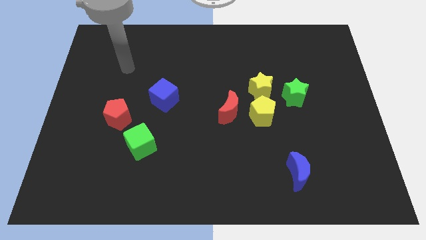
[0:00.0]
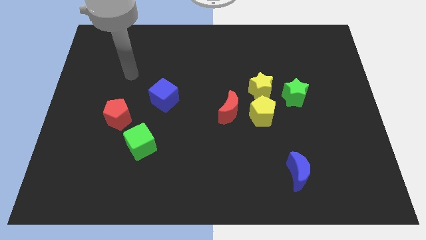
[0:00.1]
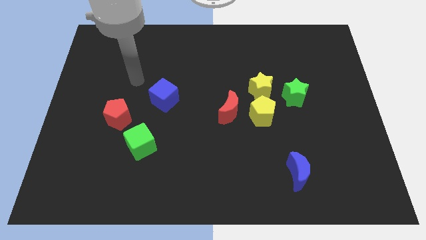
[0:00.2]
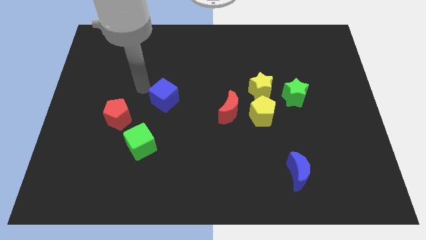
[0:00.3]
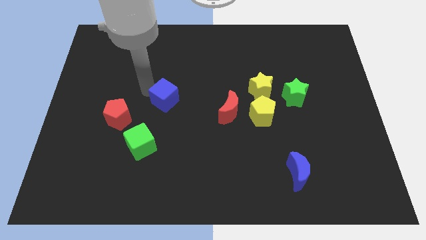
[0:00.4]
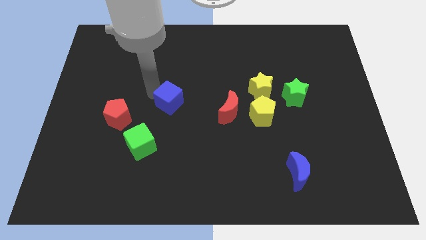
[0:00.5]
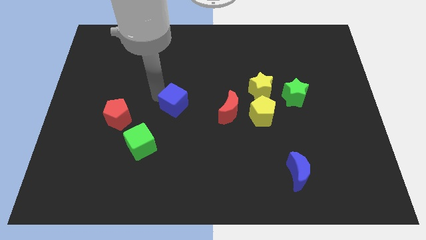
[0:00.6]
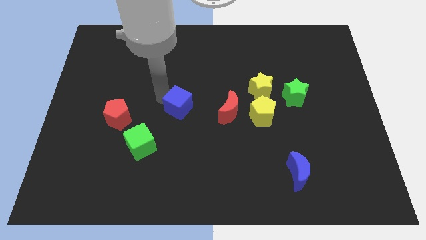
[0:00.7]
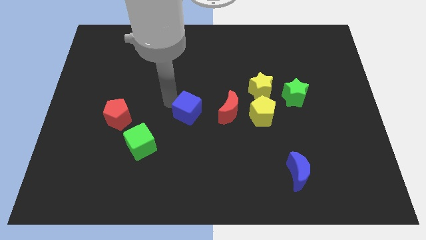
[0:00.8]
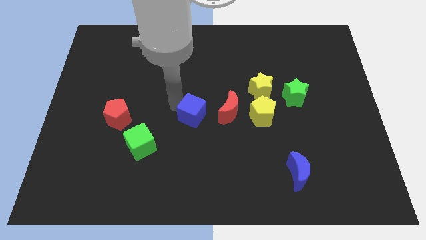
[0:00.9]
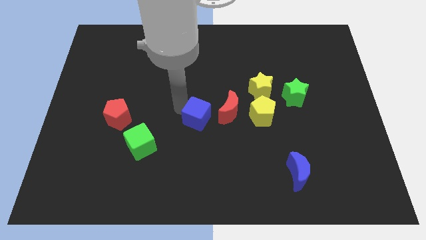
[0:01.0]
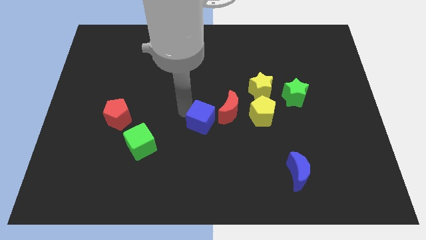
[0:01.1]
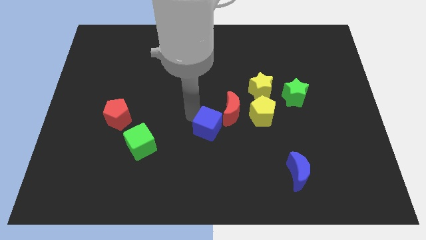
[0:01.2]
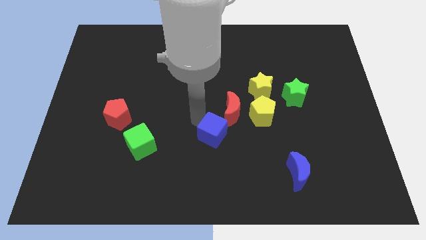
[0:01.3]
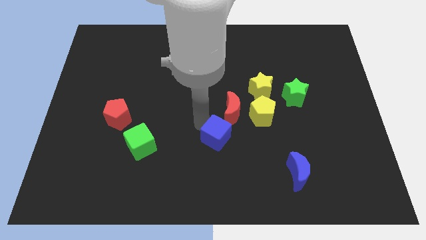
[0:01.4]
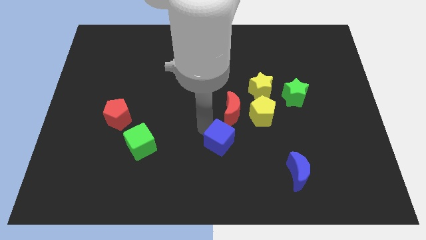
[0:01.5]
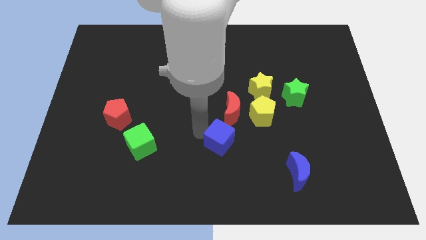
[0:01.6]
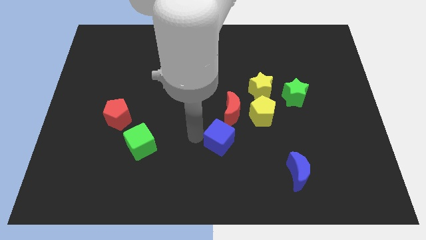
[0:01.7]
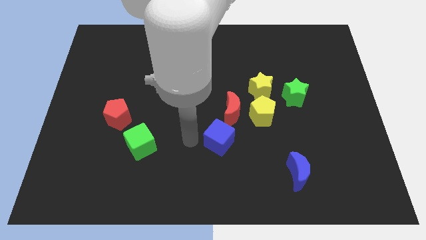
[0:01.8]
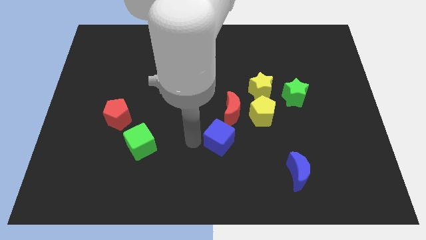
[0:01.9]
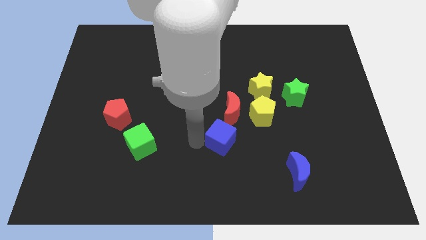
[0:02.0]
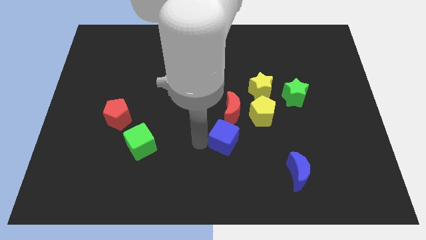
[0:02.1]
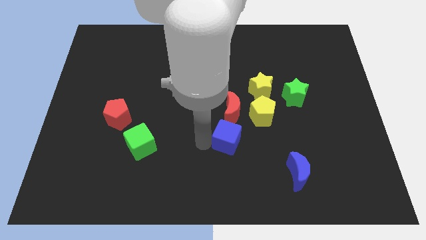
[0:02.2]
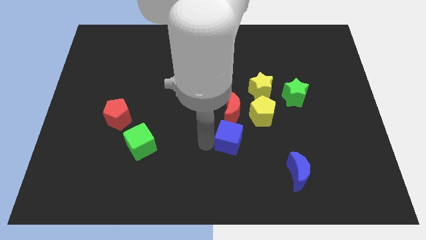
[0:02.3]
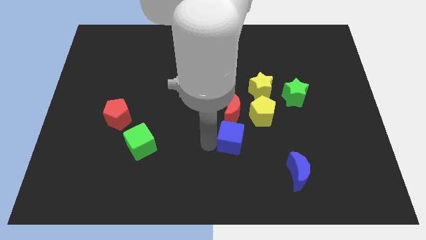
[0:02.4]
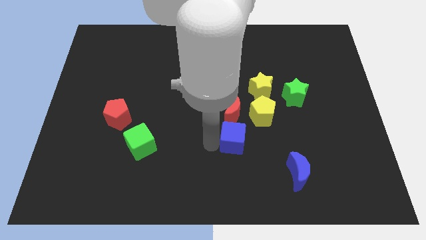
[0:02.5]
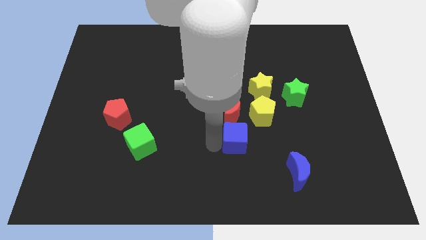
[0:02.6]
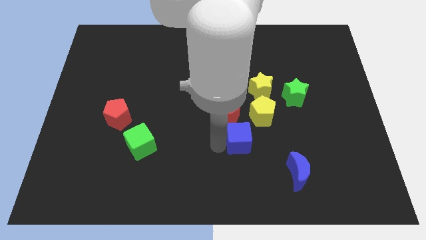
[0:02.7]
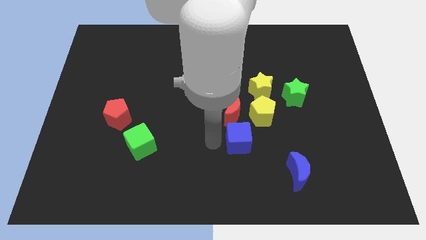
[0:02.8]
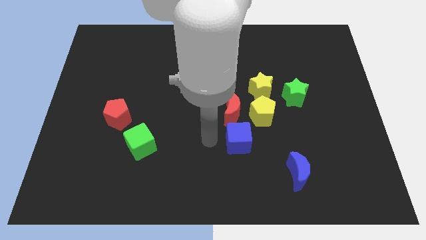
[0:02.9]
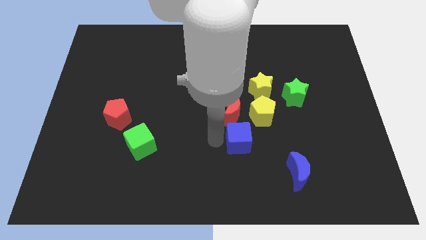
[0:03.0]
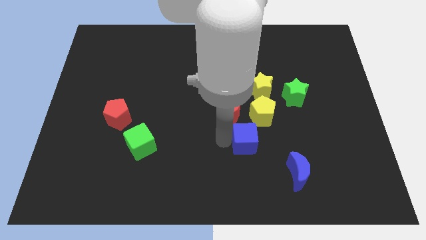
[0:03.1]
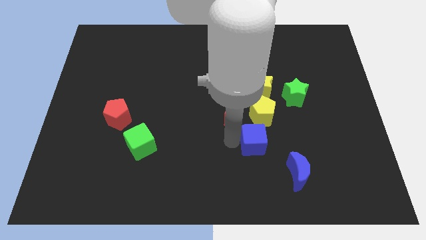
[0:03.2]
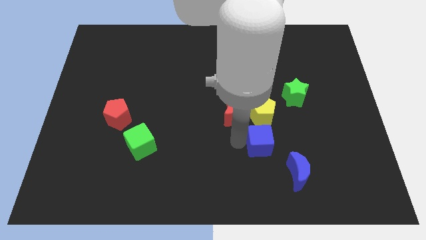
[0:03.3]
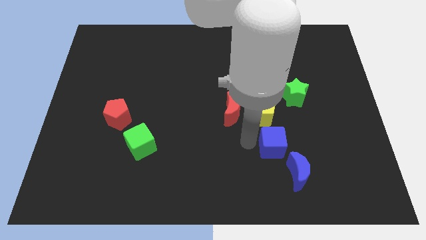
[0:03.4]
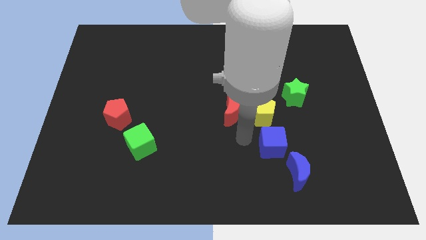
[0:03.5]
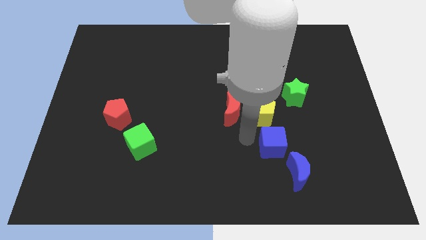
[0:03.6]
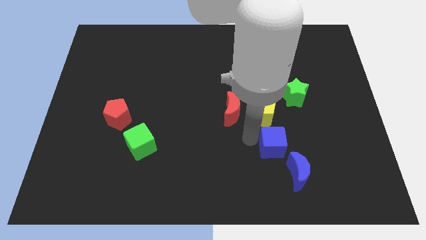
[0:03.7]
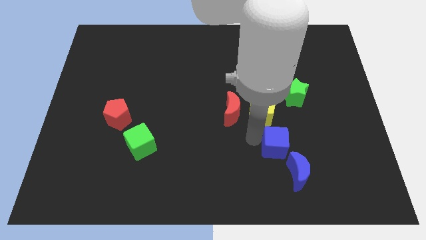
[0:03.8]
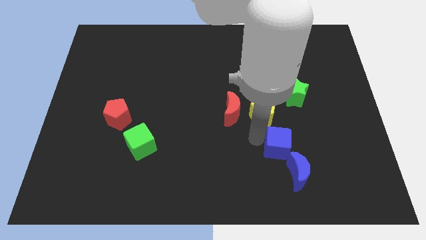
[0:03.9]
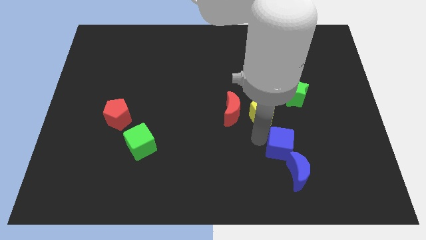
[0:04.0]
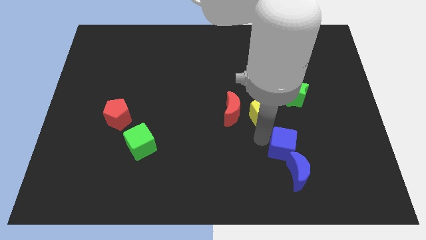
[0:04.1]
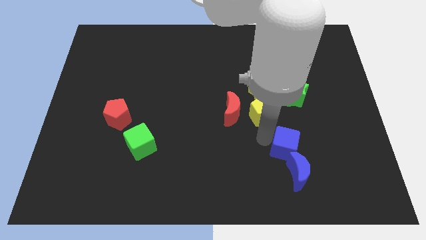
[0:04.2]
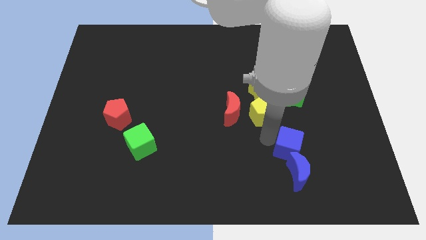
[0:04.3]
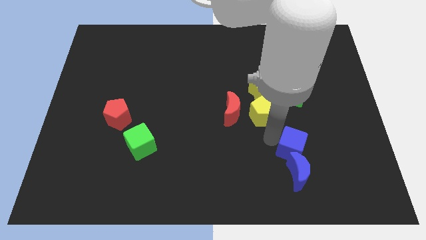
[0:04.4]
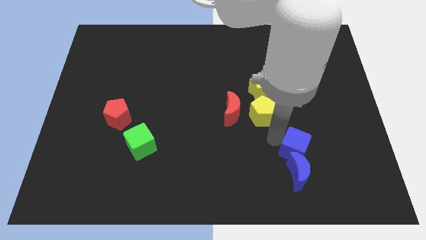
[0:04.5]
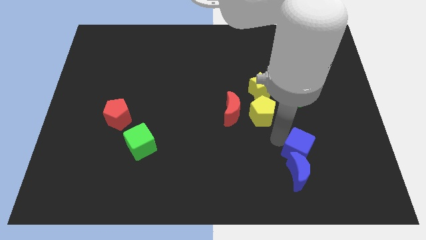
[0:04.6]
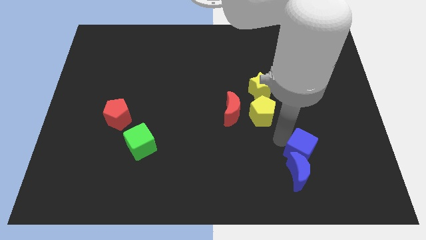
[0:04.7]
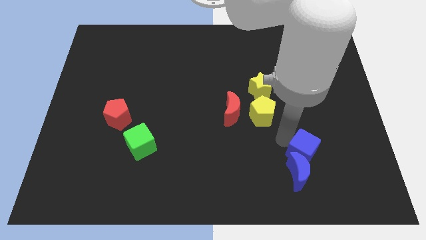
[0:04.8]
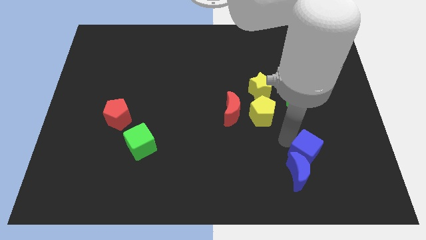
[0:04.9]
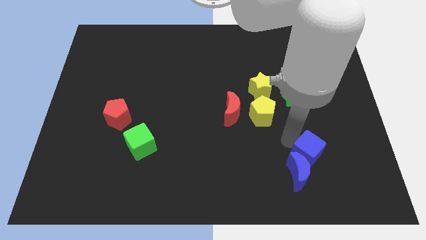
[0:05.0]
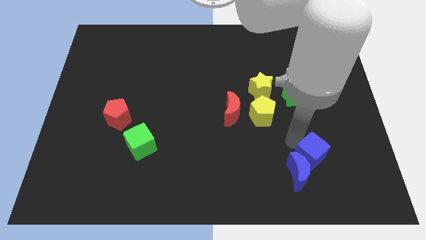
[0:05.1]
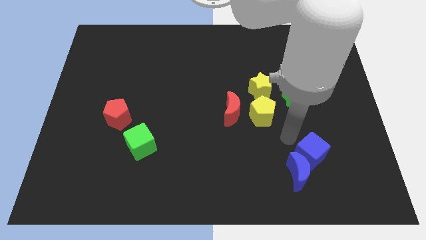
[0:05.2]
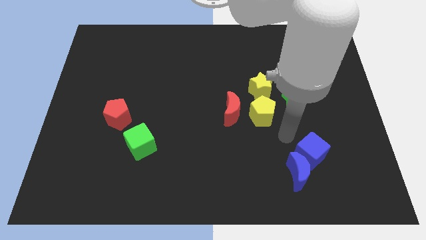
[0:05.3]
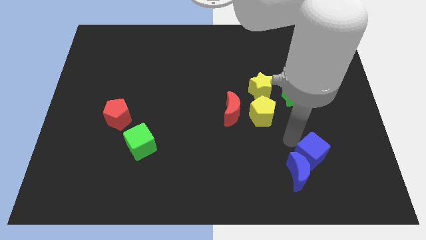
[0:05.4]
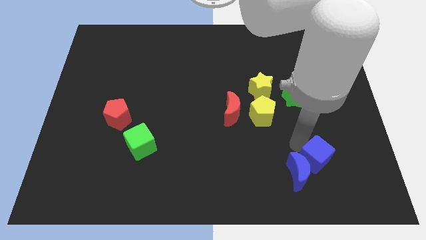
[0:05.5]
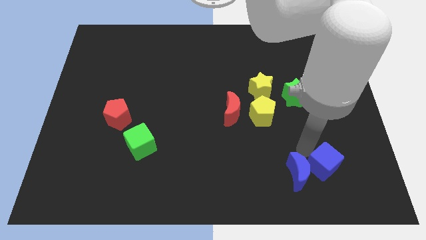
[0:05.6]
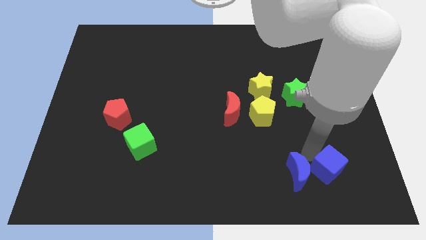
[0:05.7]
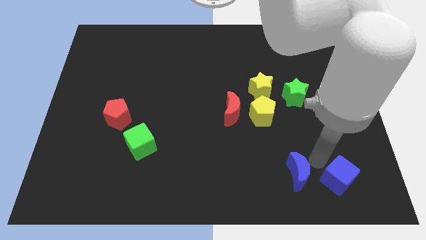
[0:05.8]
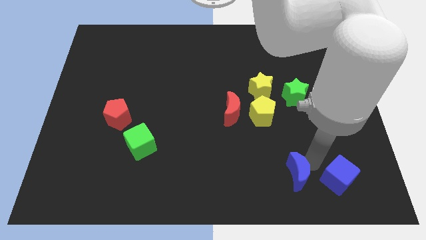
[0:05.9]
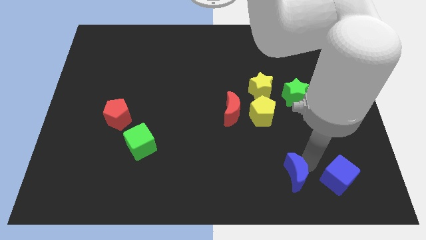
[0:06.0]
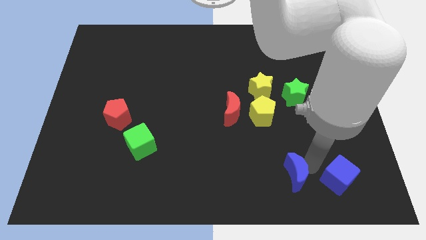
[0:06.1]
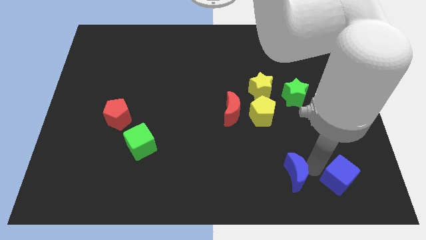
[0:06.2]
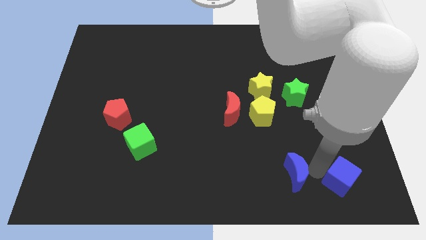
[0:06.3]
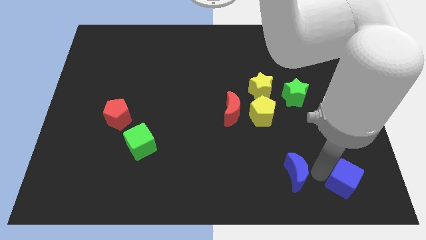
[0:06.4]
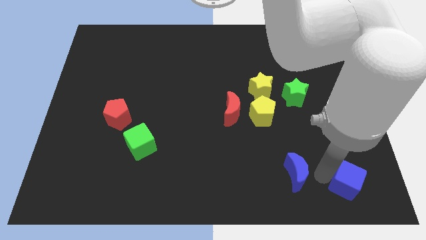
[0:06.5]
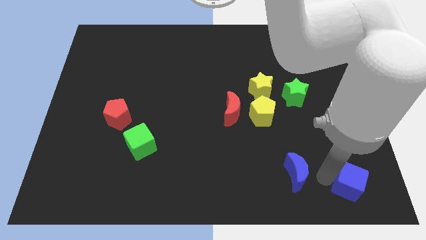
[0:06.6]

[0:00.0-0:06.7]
put the blue cube to the bottom right of the board
